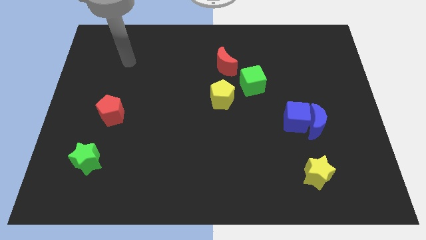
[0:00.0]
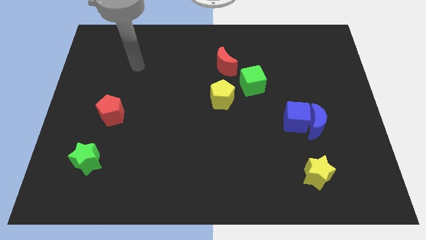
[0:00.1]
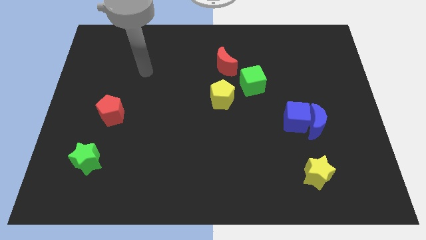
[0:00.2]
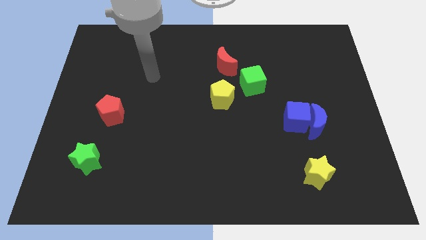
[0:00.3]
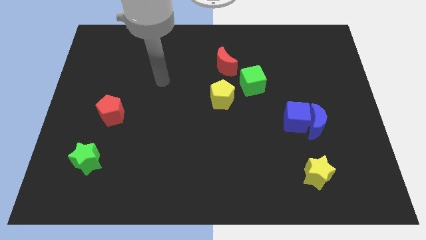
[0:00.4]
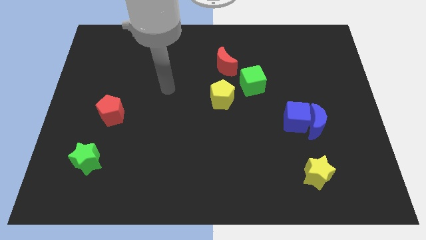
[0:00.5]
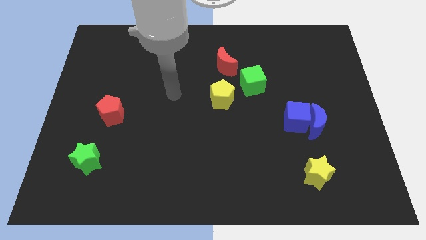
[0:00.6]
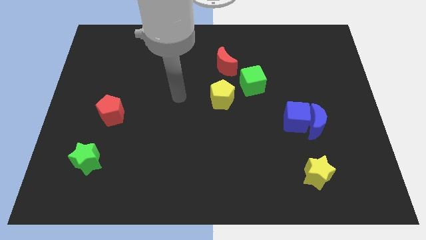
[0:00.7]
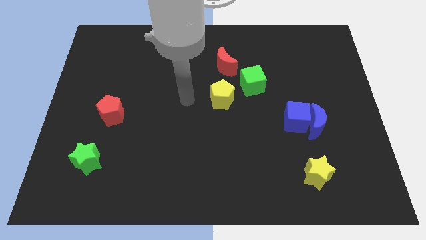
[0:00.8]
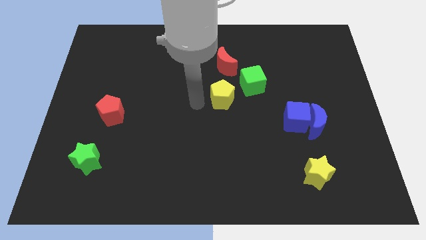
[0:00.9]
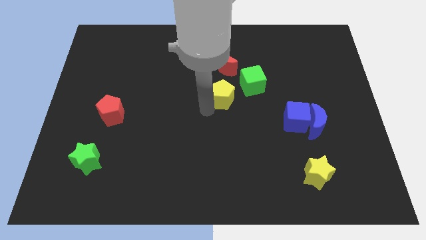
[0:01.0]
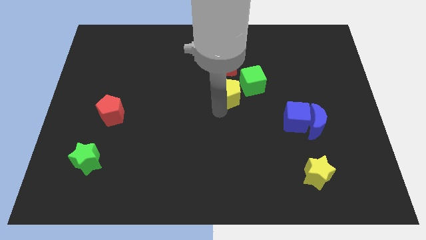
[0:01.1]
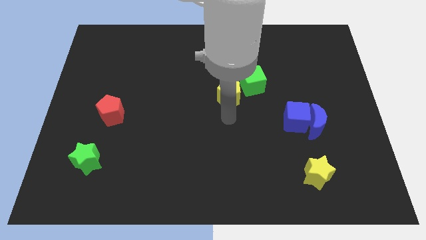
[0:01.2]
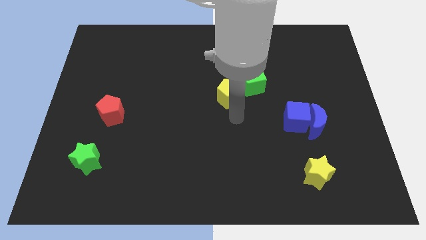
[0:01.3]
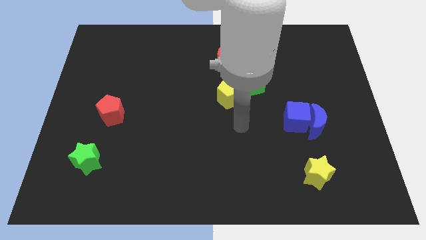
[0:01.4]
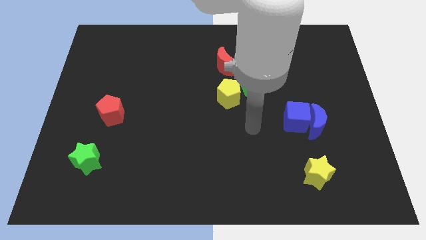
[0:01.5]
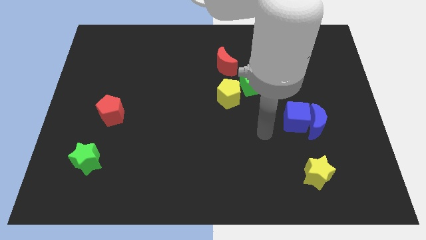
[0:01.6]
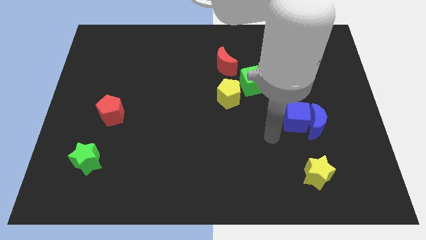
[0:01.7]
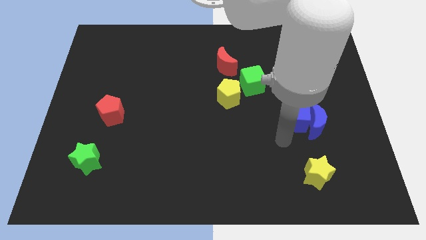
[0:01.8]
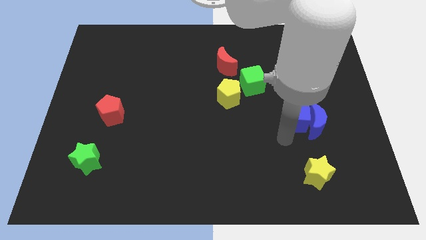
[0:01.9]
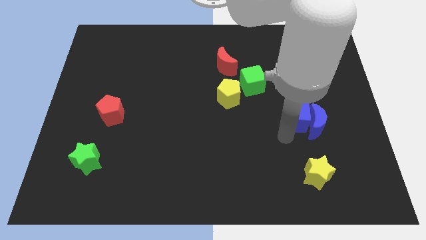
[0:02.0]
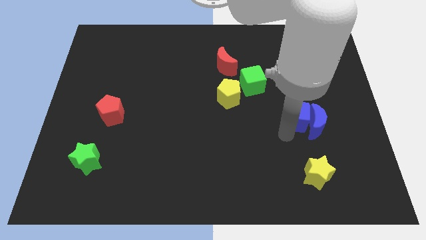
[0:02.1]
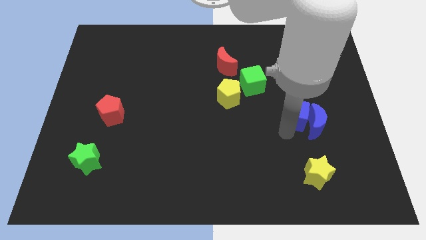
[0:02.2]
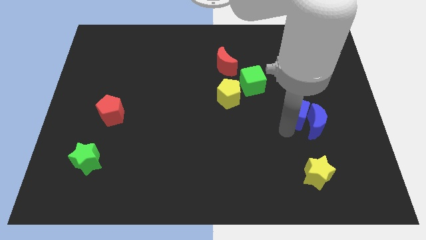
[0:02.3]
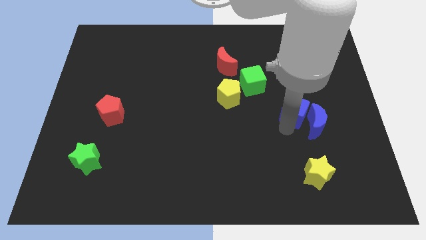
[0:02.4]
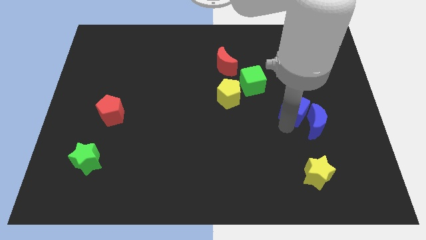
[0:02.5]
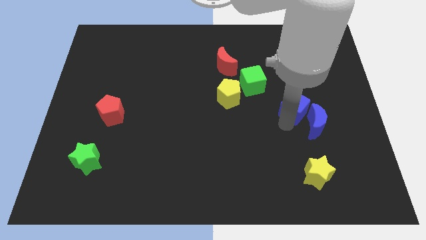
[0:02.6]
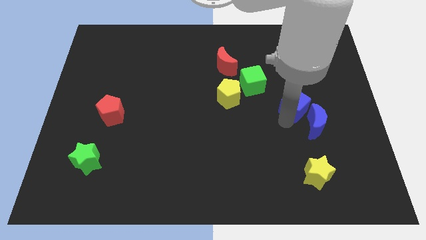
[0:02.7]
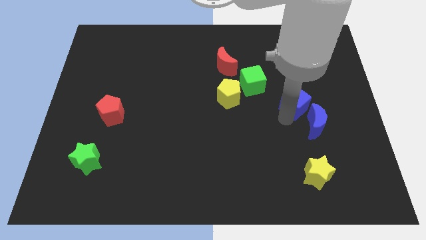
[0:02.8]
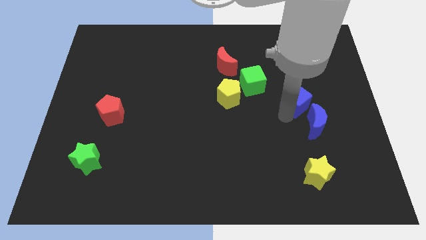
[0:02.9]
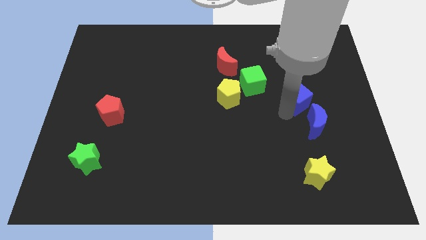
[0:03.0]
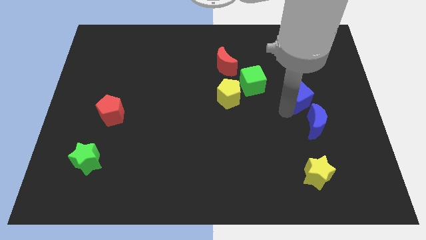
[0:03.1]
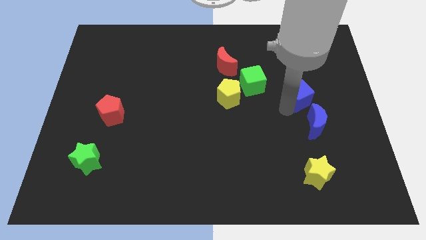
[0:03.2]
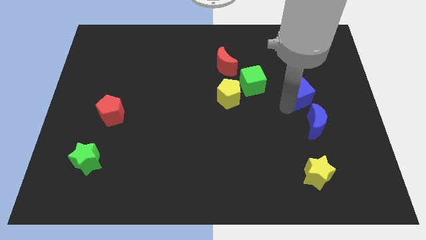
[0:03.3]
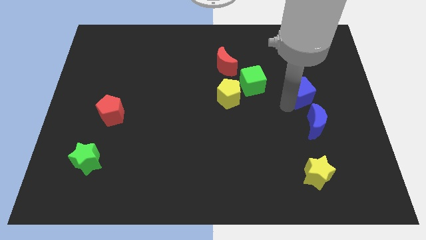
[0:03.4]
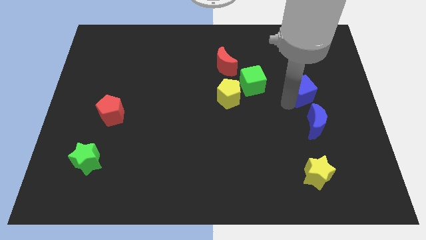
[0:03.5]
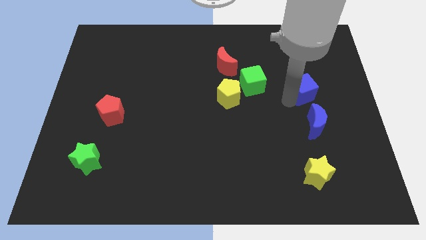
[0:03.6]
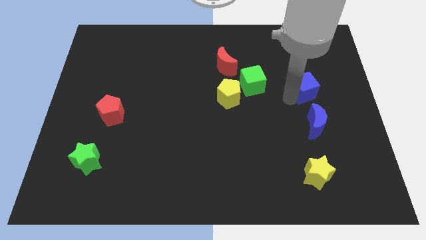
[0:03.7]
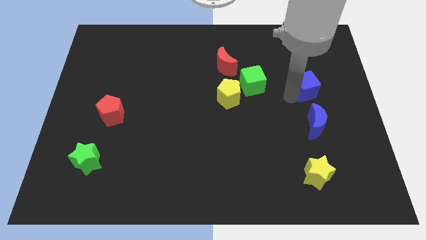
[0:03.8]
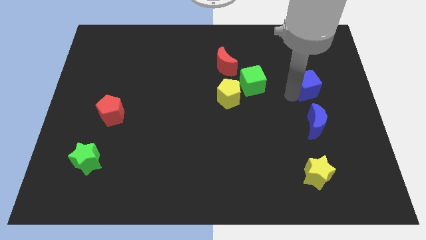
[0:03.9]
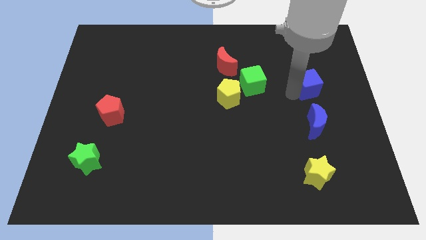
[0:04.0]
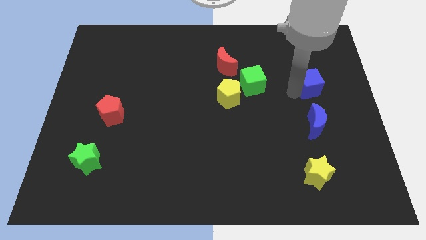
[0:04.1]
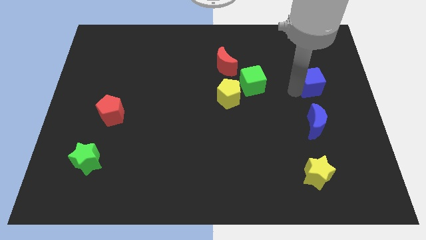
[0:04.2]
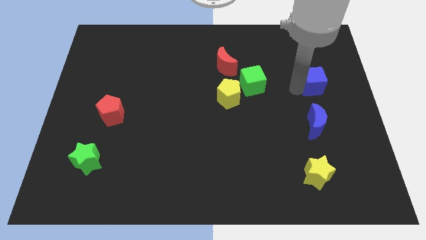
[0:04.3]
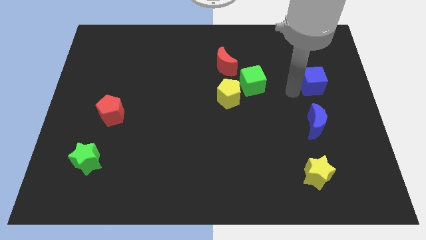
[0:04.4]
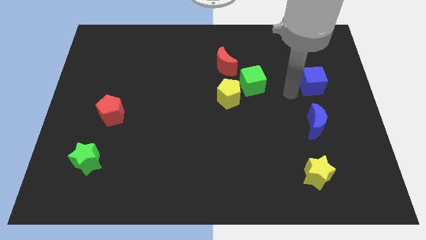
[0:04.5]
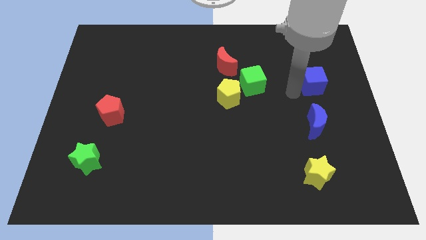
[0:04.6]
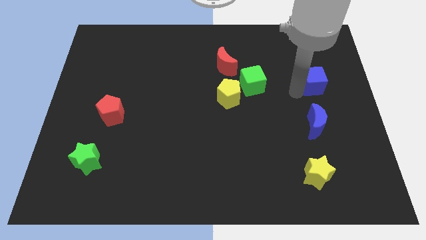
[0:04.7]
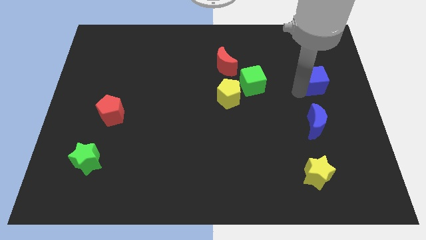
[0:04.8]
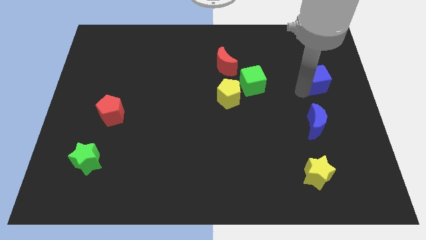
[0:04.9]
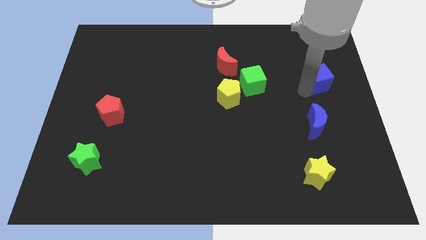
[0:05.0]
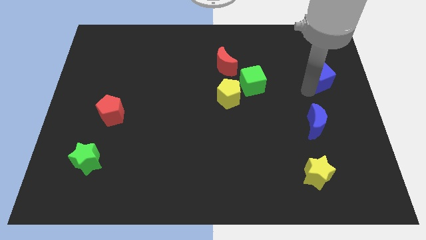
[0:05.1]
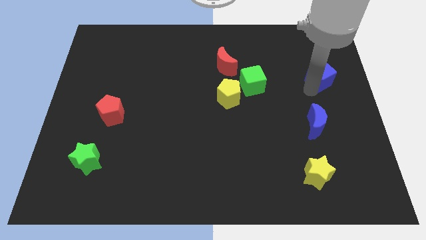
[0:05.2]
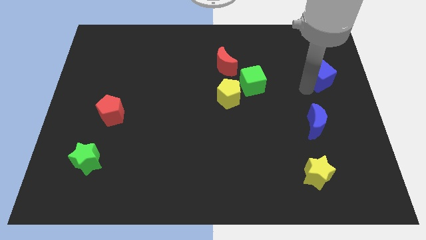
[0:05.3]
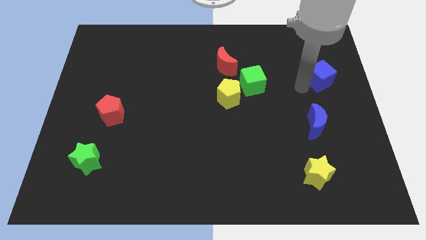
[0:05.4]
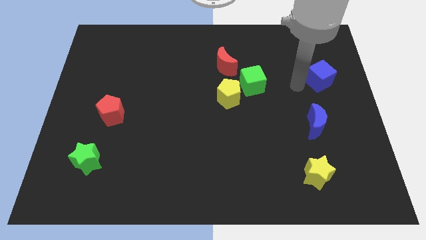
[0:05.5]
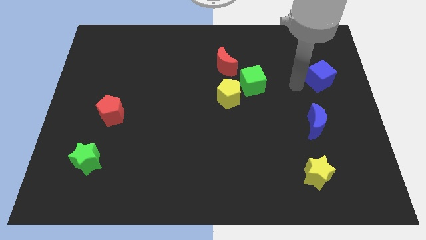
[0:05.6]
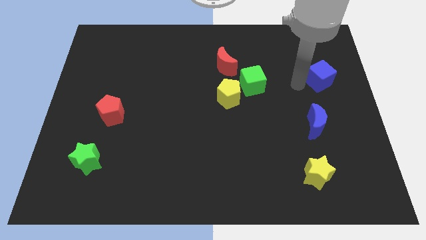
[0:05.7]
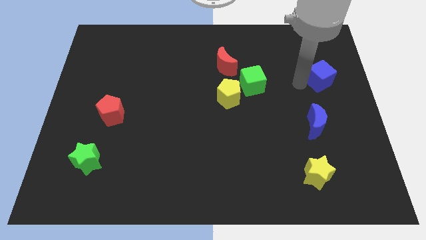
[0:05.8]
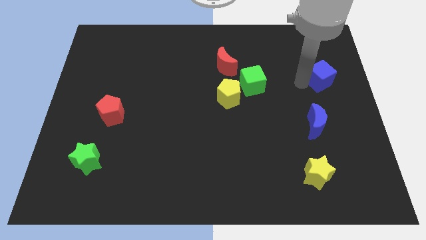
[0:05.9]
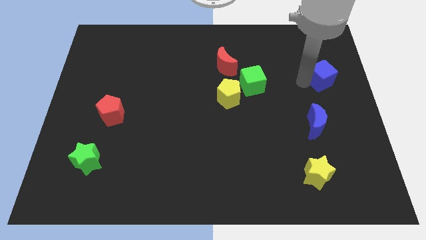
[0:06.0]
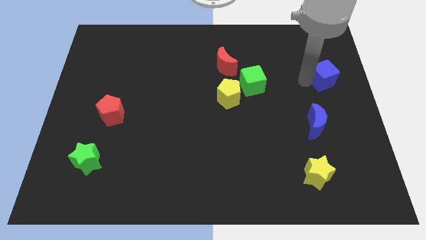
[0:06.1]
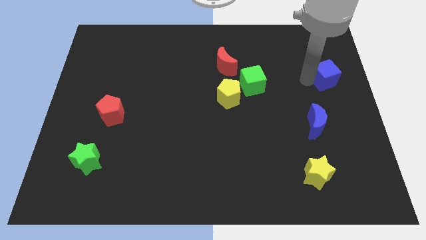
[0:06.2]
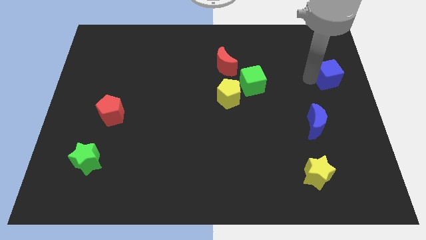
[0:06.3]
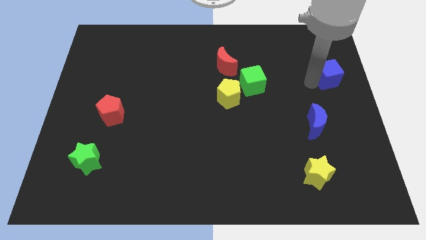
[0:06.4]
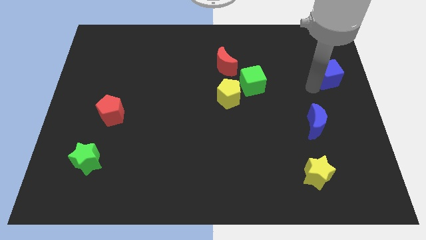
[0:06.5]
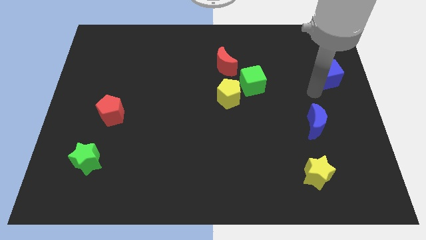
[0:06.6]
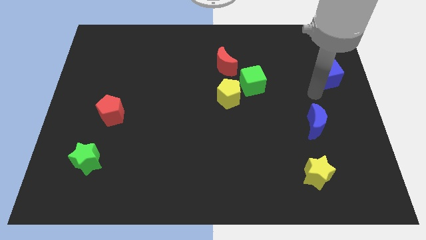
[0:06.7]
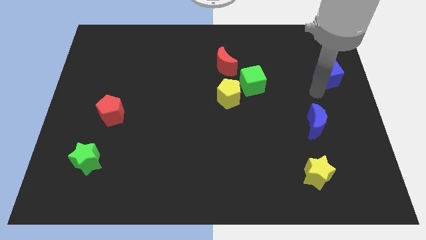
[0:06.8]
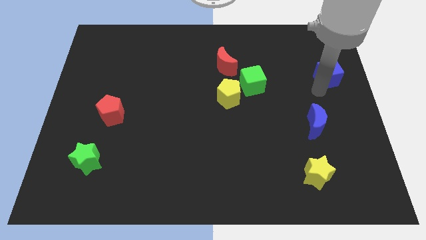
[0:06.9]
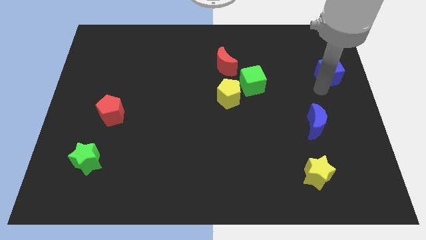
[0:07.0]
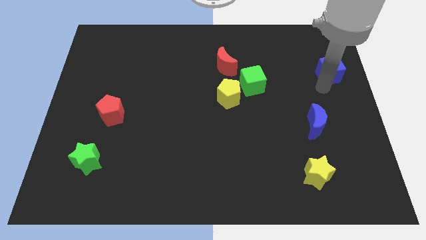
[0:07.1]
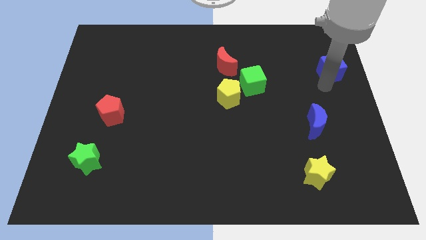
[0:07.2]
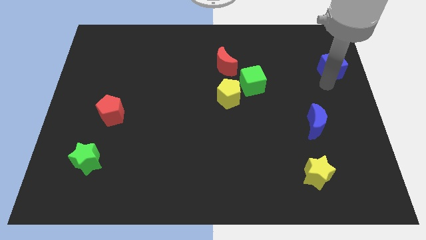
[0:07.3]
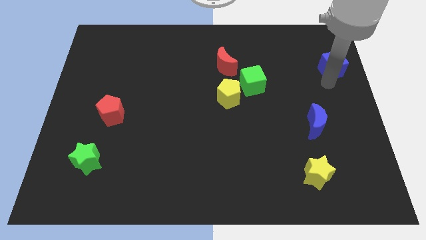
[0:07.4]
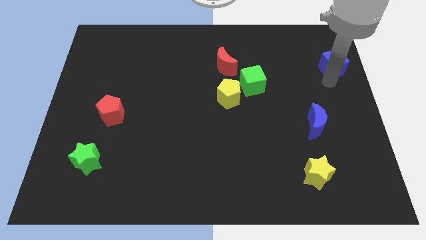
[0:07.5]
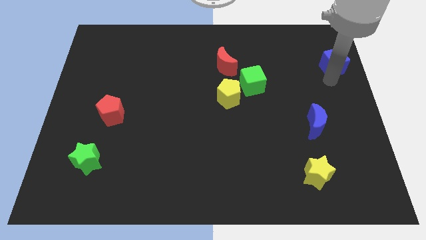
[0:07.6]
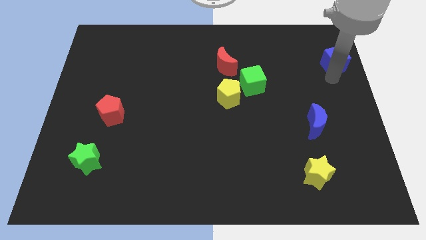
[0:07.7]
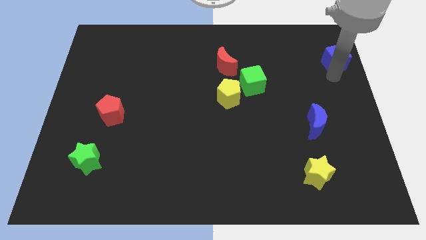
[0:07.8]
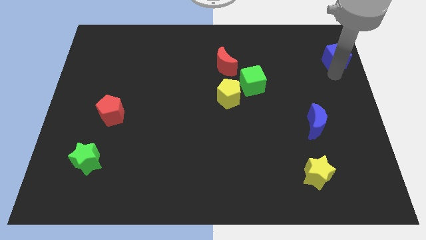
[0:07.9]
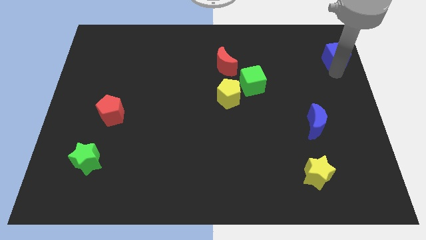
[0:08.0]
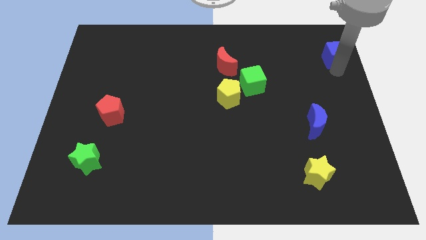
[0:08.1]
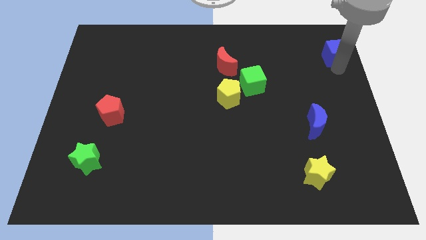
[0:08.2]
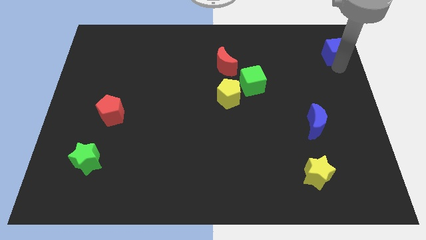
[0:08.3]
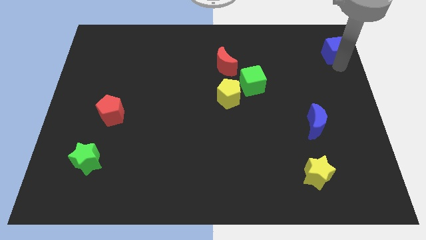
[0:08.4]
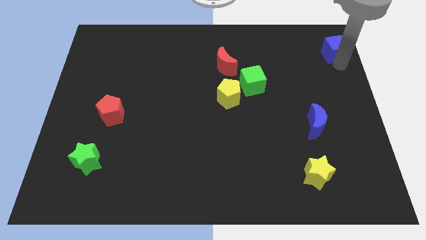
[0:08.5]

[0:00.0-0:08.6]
slide the blue cube to the upper right corner
